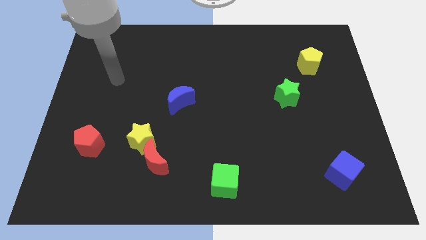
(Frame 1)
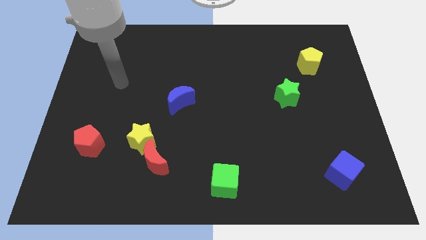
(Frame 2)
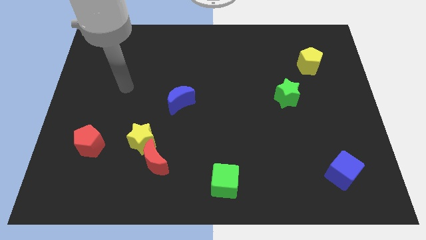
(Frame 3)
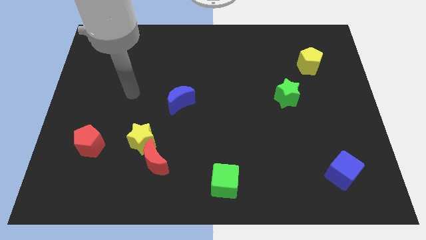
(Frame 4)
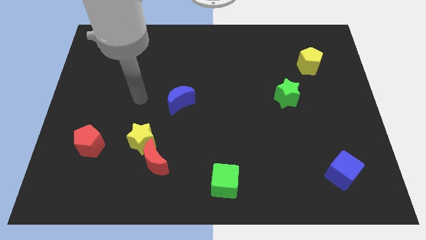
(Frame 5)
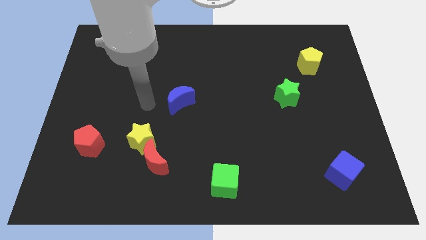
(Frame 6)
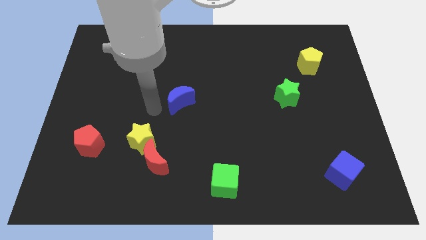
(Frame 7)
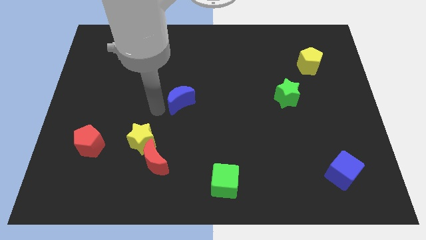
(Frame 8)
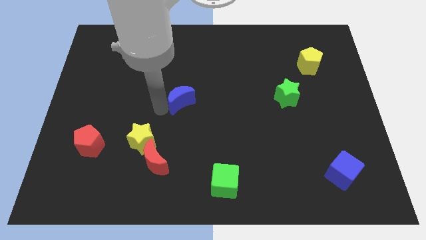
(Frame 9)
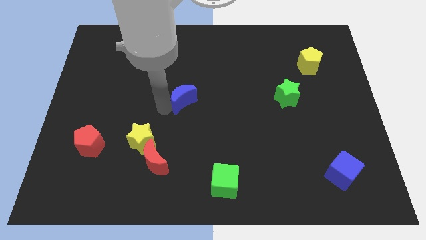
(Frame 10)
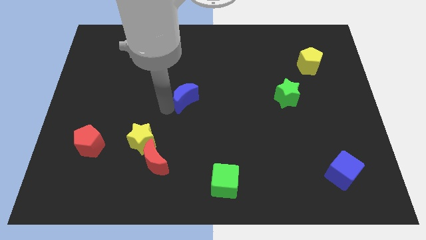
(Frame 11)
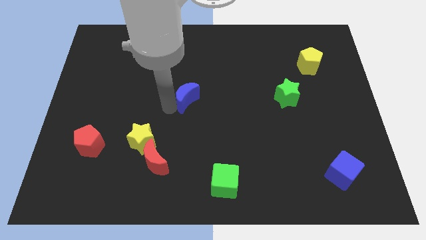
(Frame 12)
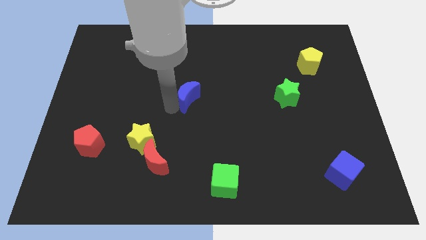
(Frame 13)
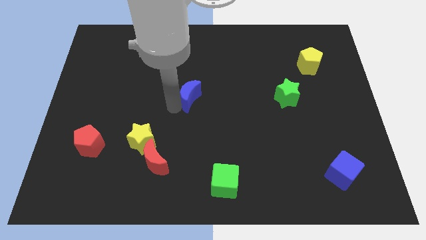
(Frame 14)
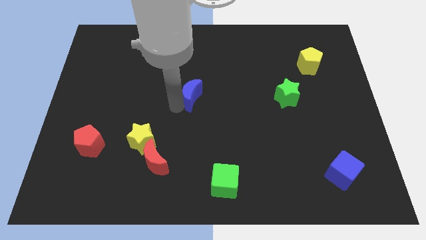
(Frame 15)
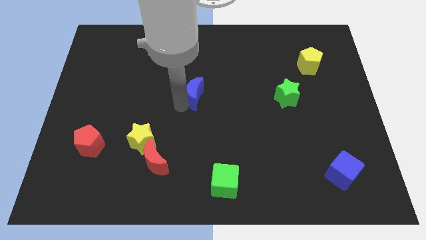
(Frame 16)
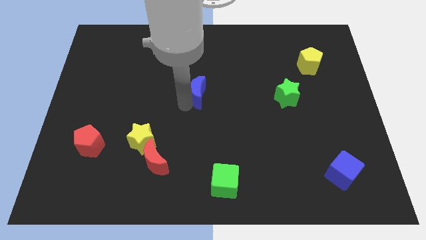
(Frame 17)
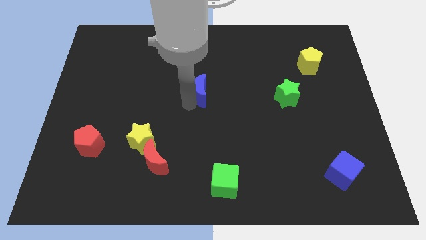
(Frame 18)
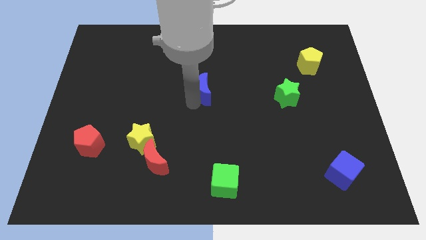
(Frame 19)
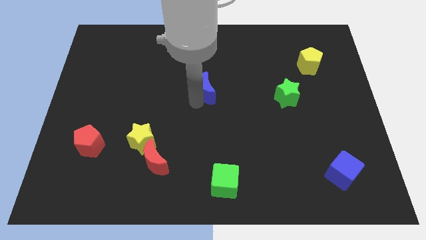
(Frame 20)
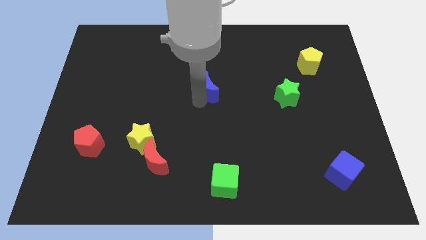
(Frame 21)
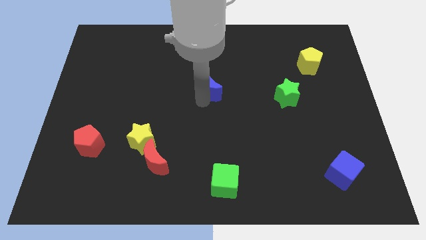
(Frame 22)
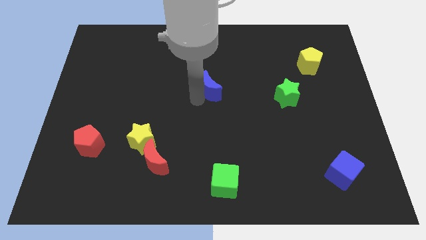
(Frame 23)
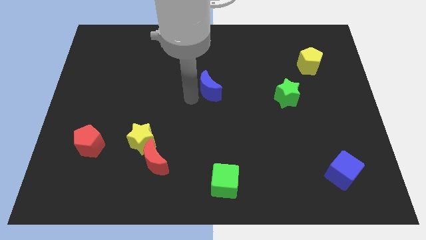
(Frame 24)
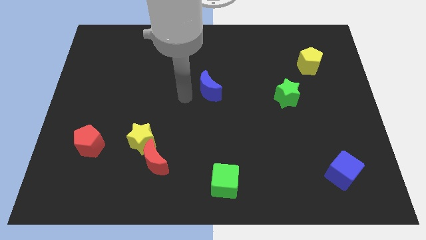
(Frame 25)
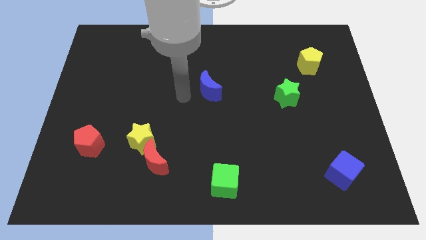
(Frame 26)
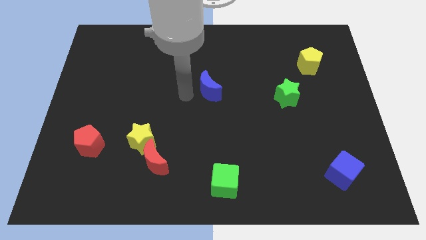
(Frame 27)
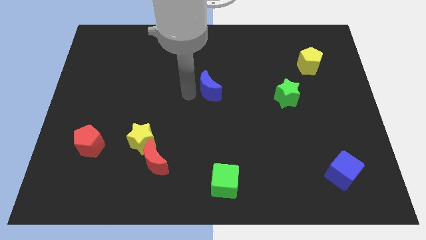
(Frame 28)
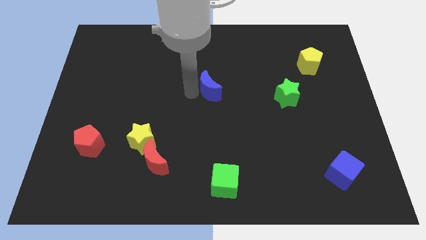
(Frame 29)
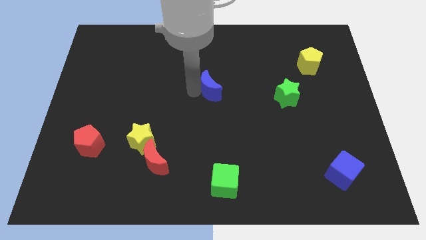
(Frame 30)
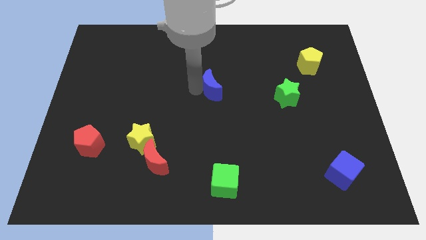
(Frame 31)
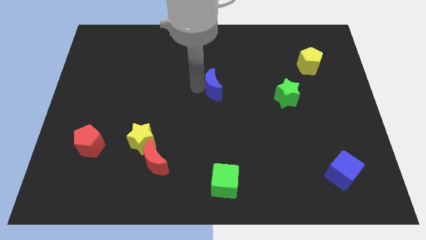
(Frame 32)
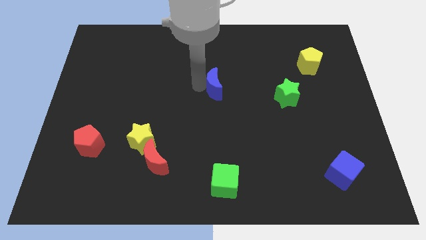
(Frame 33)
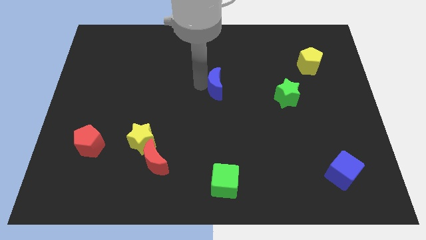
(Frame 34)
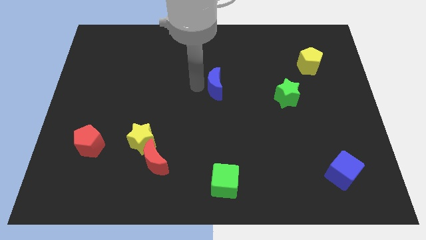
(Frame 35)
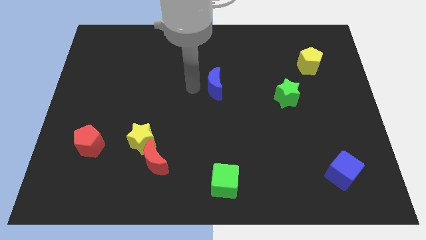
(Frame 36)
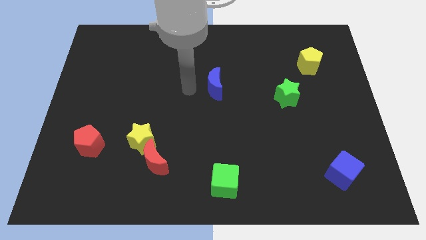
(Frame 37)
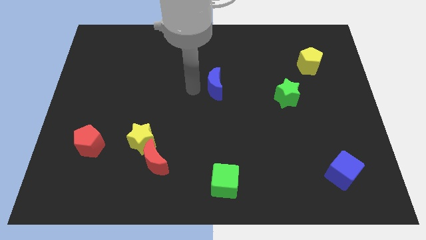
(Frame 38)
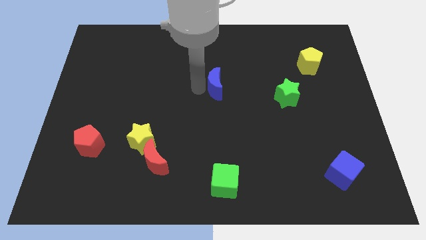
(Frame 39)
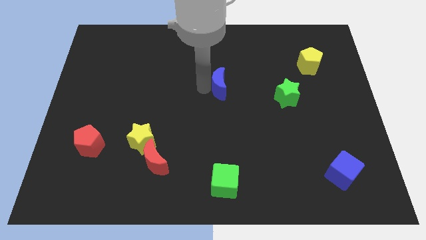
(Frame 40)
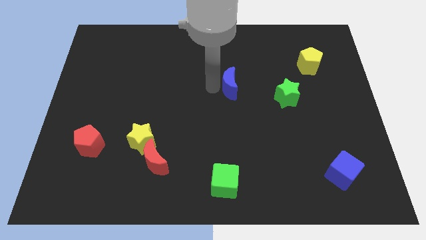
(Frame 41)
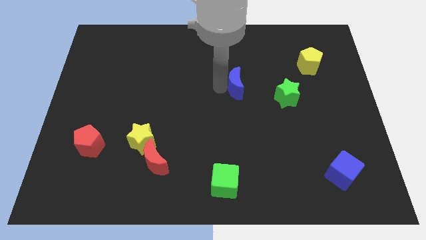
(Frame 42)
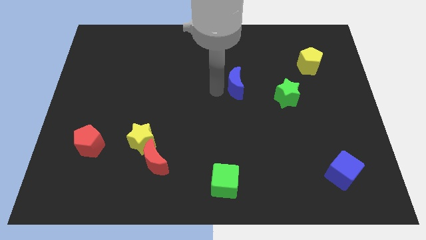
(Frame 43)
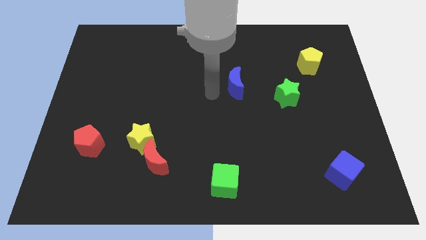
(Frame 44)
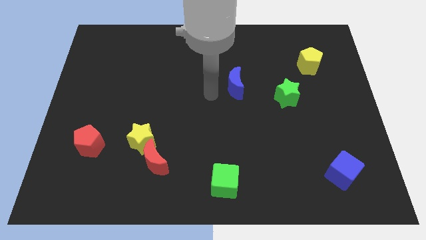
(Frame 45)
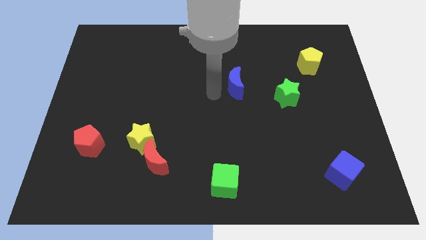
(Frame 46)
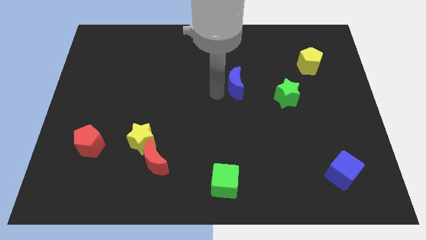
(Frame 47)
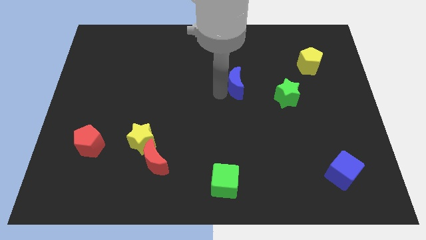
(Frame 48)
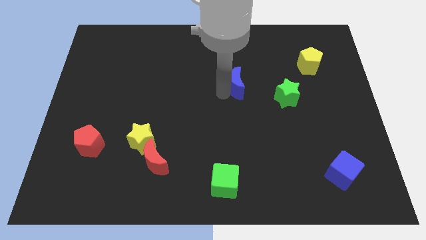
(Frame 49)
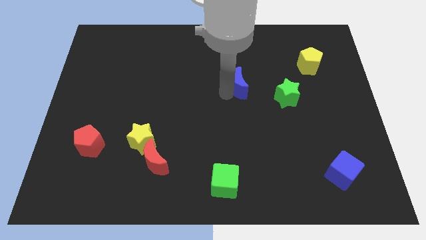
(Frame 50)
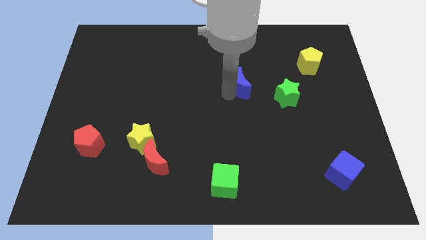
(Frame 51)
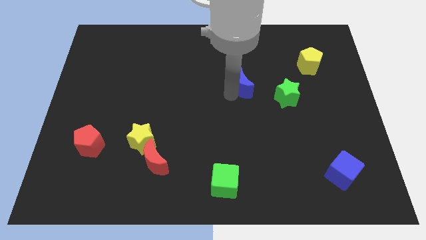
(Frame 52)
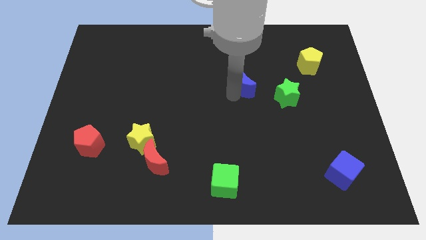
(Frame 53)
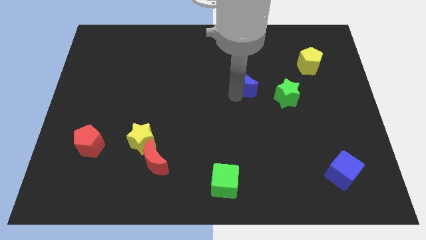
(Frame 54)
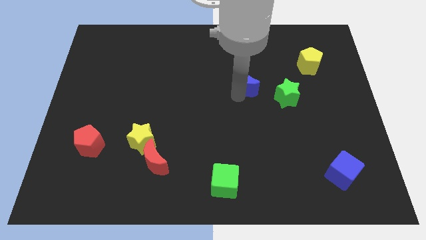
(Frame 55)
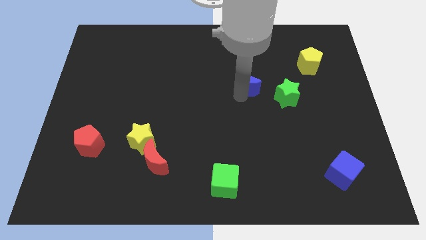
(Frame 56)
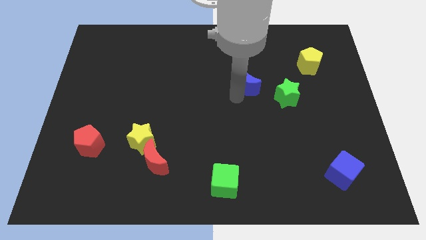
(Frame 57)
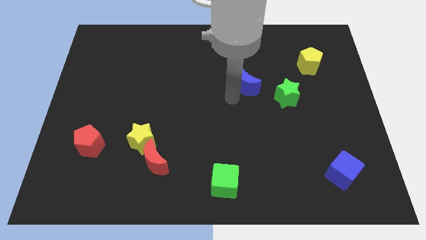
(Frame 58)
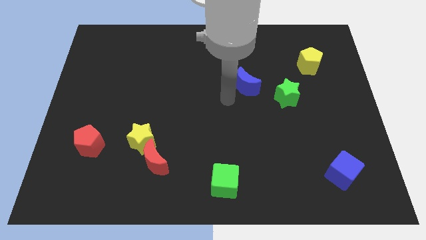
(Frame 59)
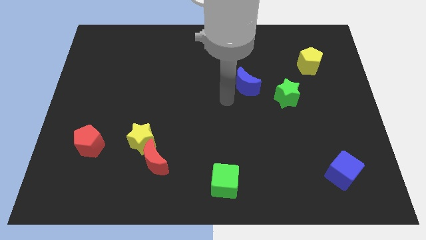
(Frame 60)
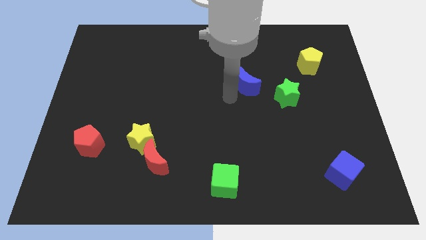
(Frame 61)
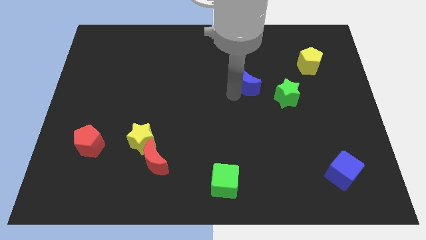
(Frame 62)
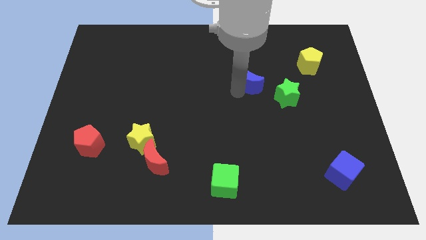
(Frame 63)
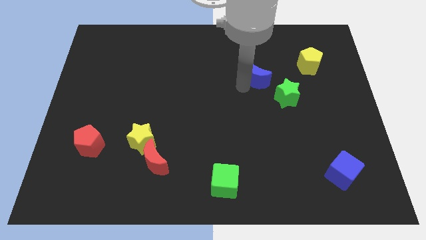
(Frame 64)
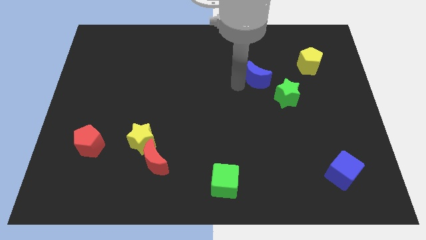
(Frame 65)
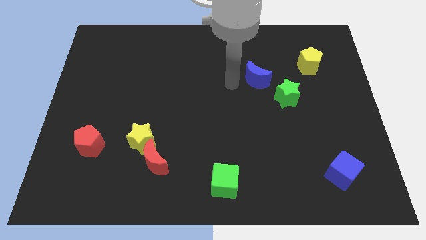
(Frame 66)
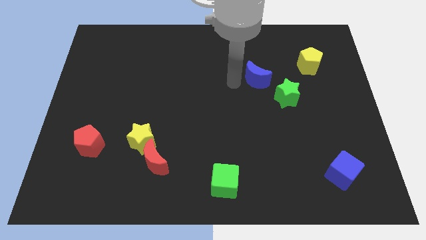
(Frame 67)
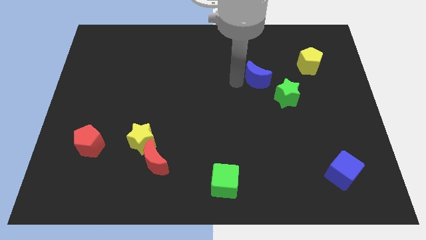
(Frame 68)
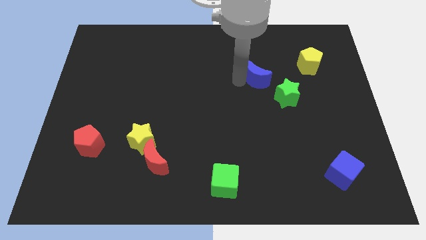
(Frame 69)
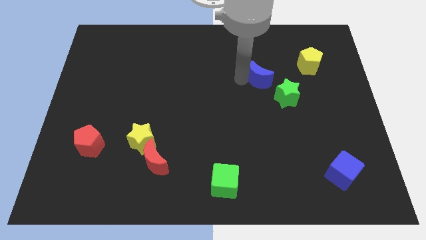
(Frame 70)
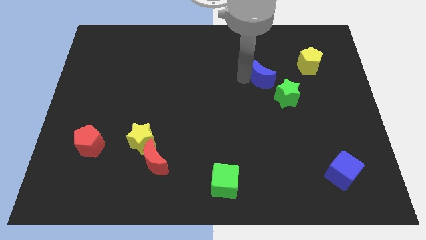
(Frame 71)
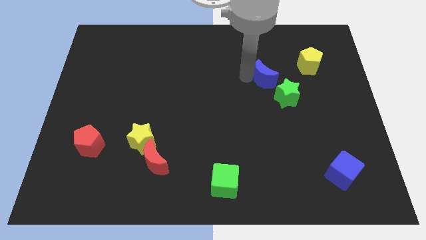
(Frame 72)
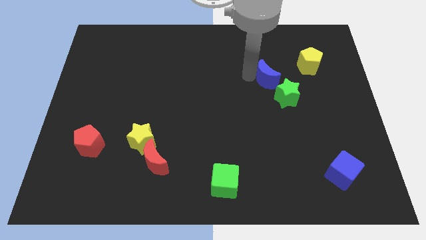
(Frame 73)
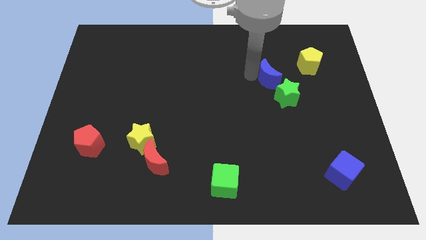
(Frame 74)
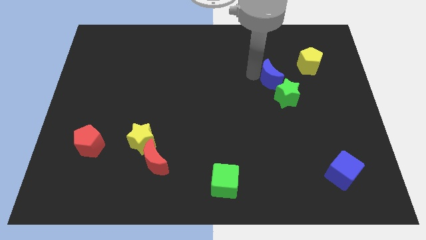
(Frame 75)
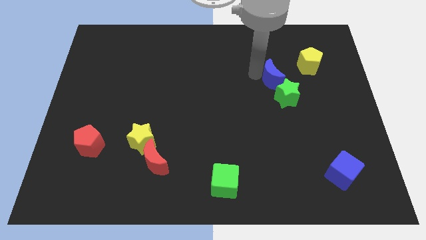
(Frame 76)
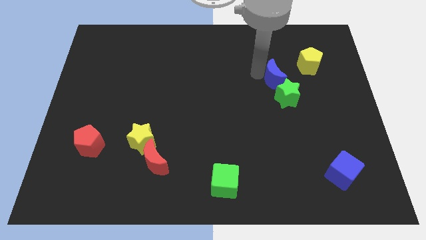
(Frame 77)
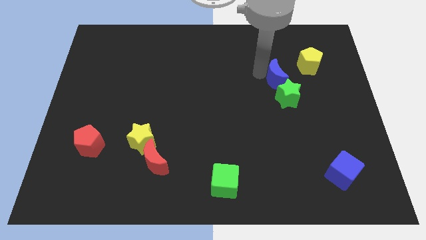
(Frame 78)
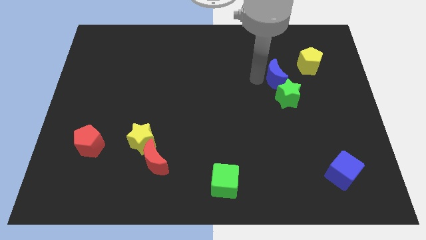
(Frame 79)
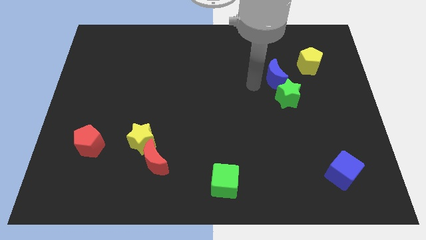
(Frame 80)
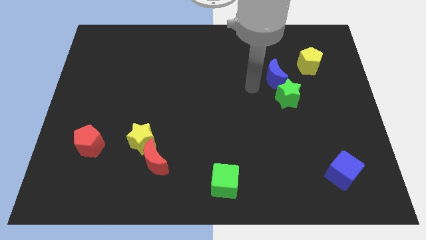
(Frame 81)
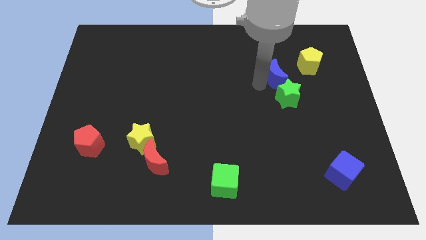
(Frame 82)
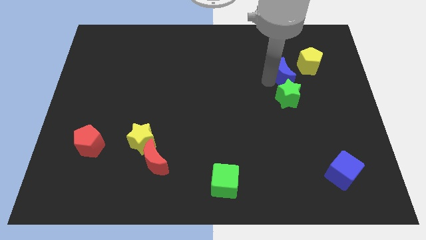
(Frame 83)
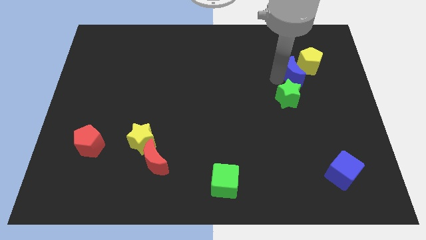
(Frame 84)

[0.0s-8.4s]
move the blue moon to the yellow pentagon
